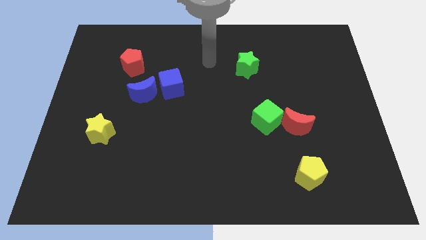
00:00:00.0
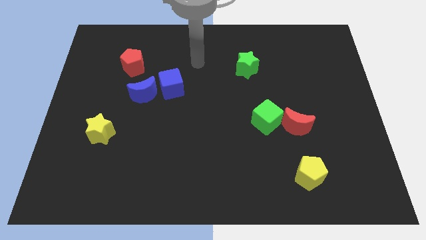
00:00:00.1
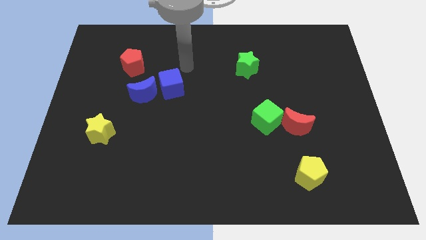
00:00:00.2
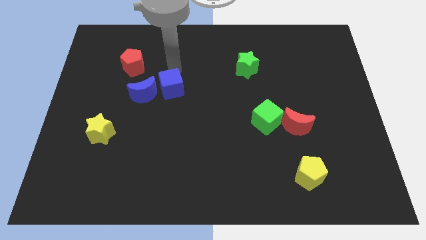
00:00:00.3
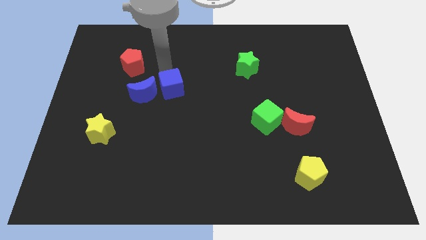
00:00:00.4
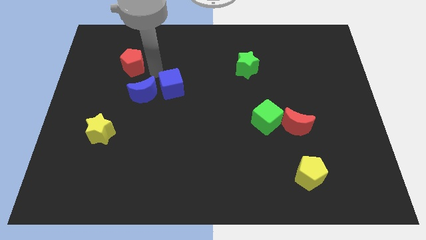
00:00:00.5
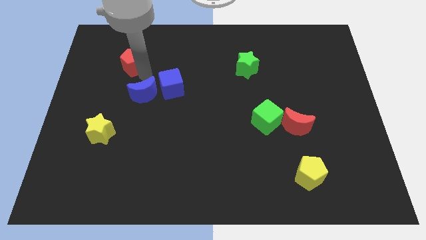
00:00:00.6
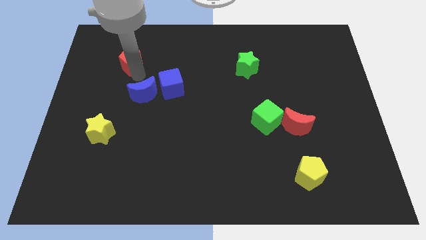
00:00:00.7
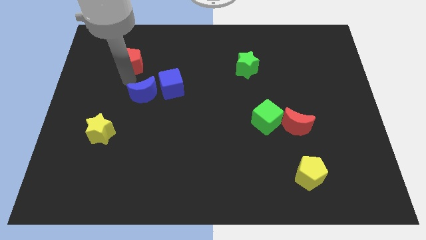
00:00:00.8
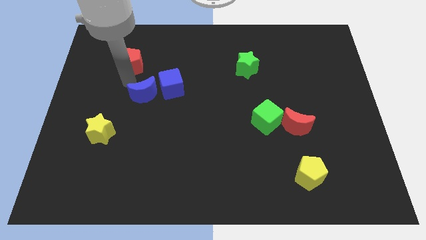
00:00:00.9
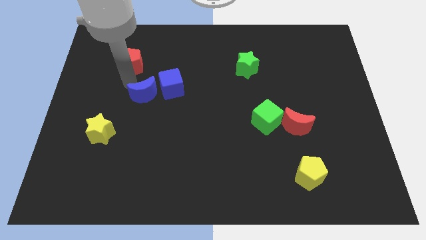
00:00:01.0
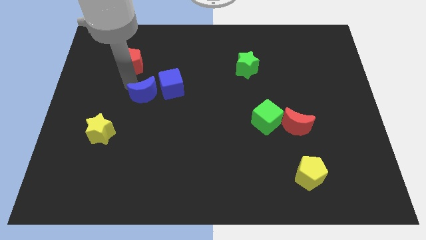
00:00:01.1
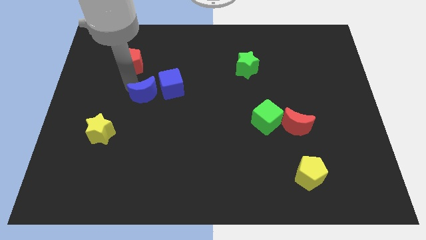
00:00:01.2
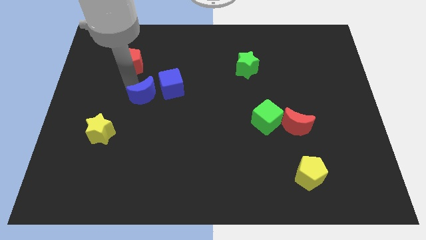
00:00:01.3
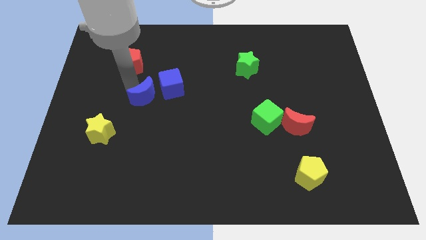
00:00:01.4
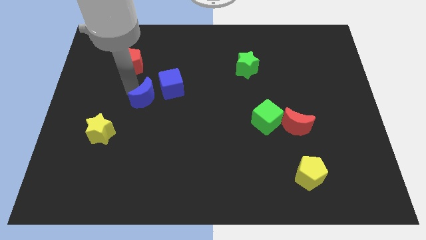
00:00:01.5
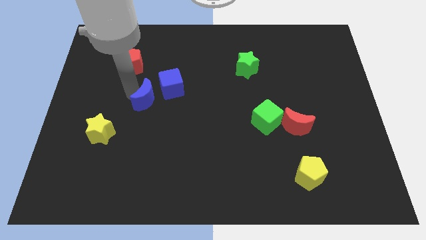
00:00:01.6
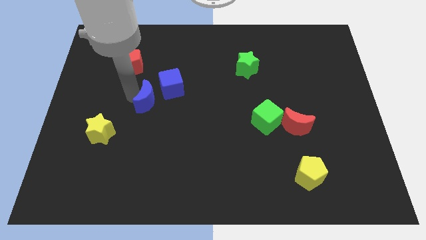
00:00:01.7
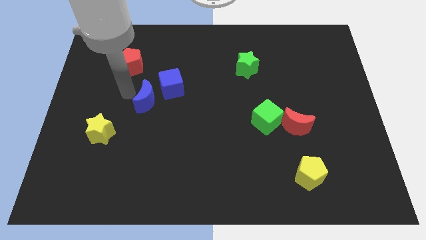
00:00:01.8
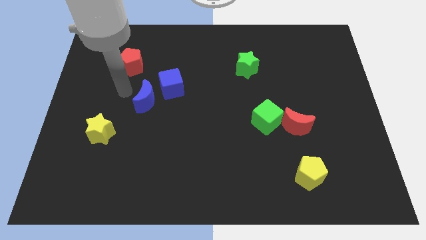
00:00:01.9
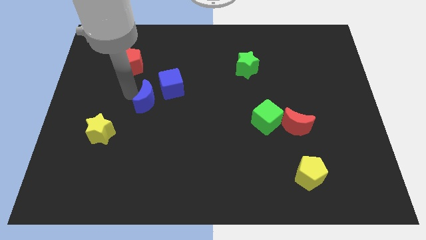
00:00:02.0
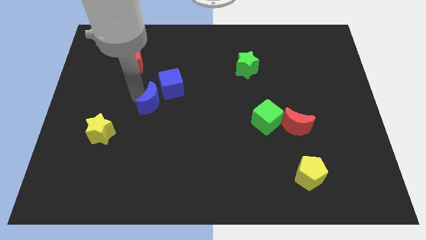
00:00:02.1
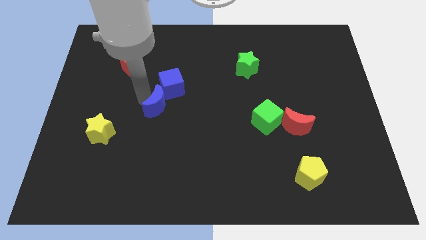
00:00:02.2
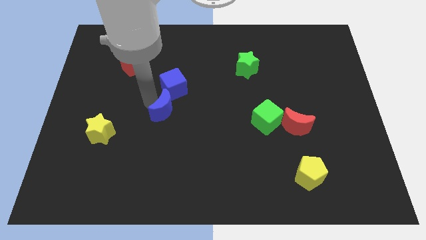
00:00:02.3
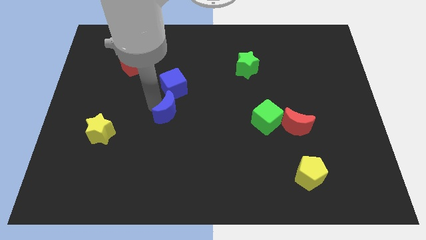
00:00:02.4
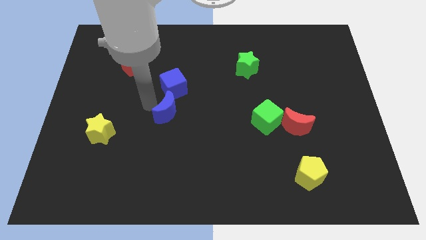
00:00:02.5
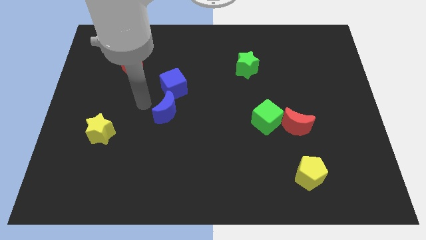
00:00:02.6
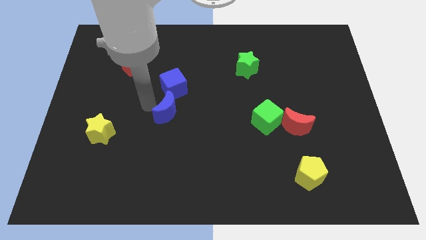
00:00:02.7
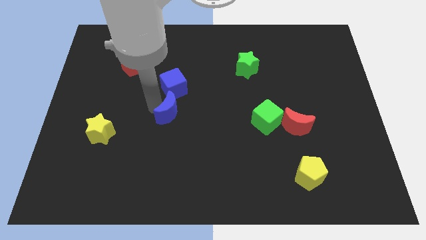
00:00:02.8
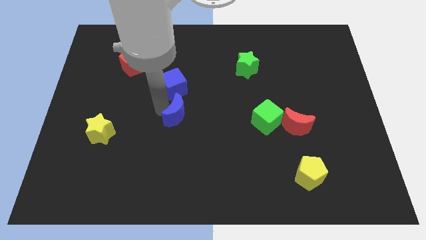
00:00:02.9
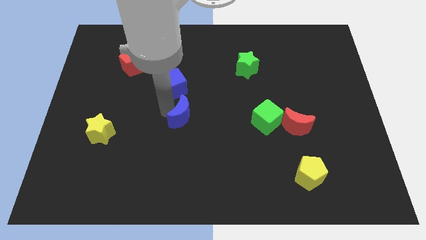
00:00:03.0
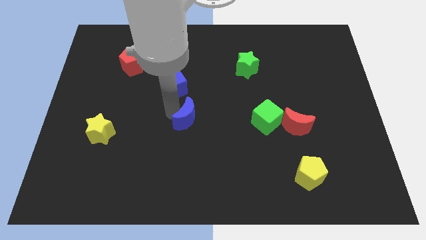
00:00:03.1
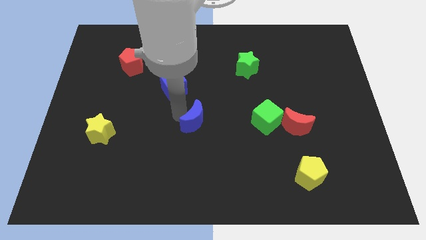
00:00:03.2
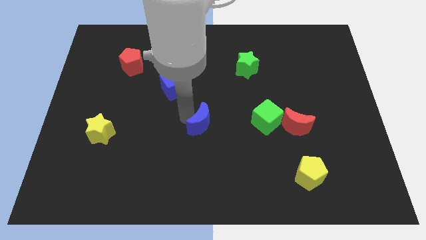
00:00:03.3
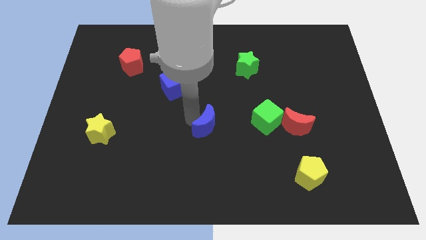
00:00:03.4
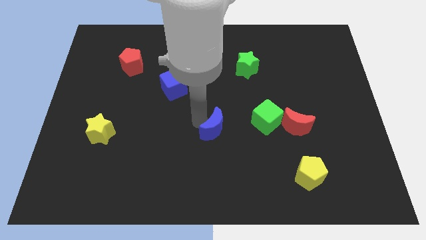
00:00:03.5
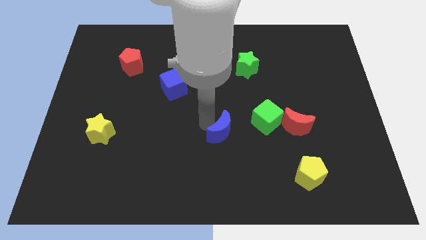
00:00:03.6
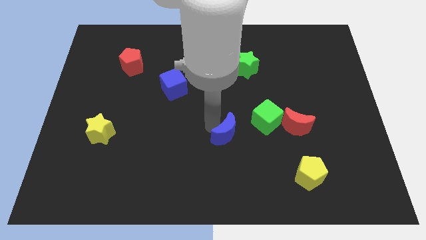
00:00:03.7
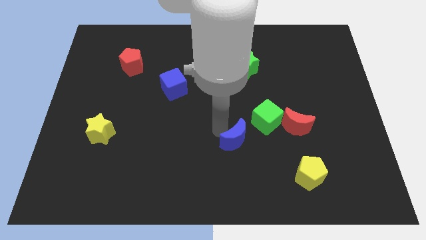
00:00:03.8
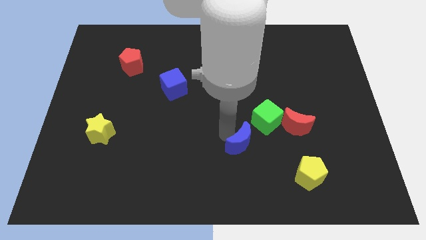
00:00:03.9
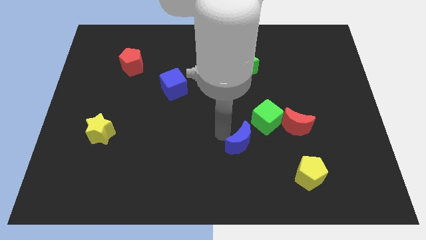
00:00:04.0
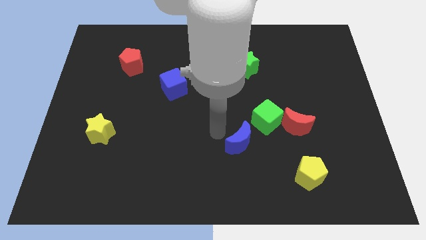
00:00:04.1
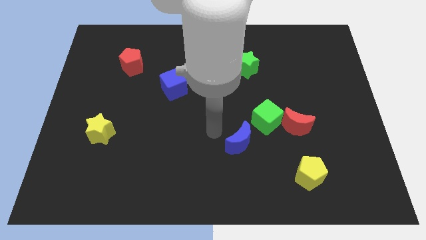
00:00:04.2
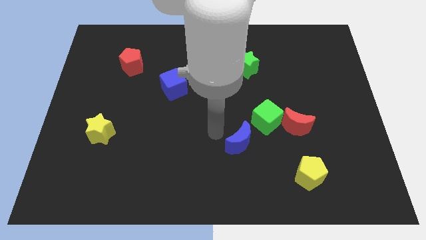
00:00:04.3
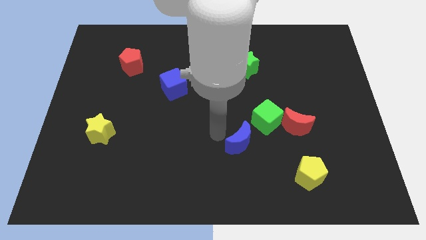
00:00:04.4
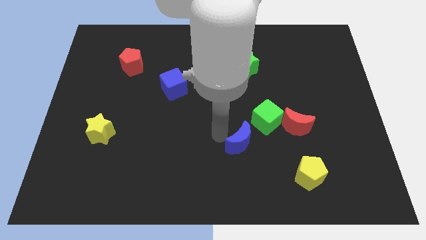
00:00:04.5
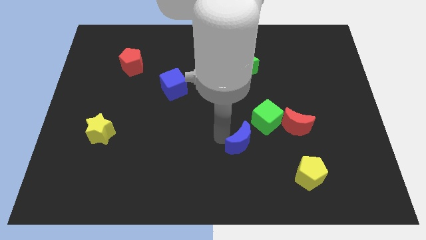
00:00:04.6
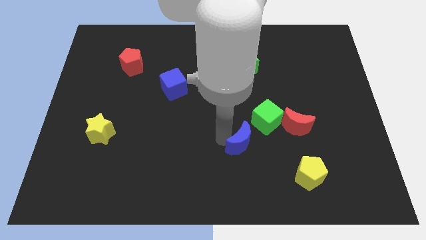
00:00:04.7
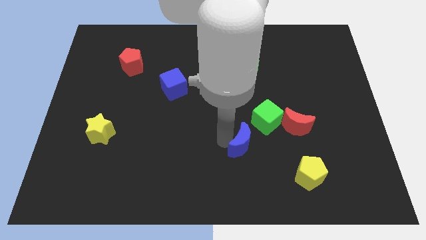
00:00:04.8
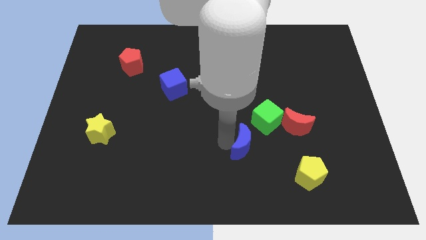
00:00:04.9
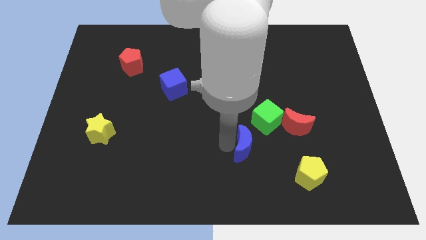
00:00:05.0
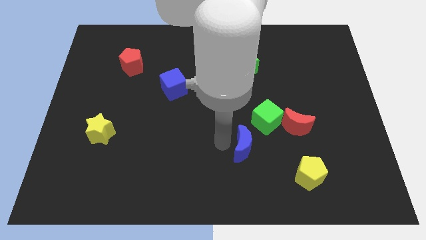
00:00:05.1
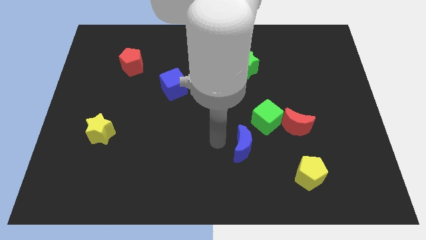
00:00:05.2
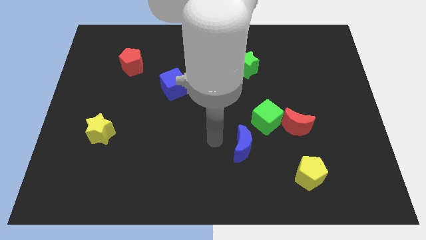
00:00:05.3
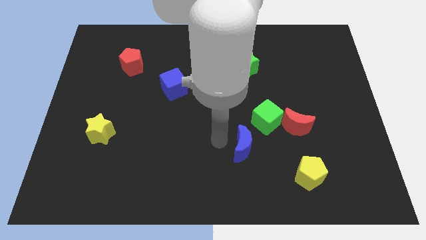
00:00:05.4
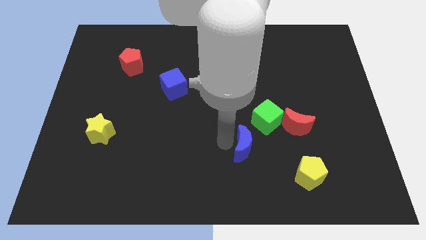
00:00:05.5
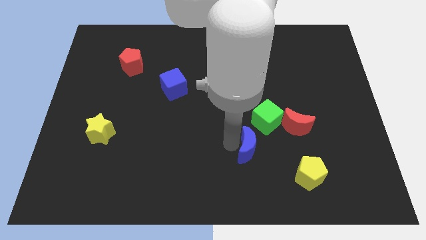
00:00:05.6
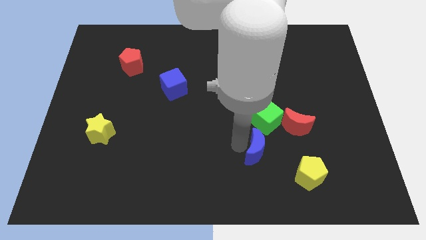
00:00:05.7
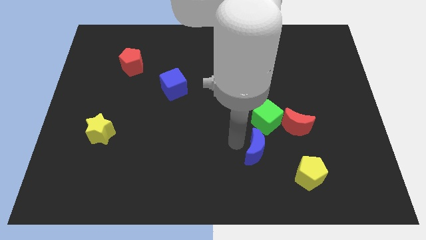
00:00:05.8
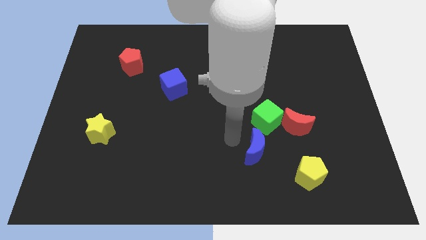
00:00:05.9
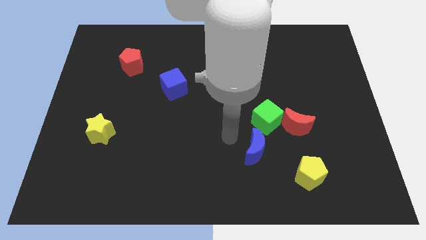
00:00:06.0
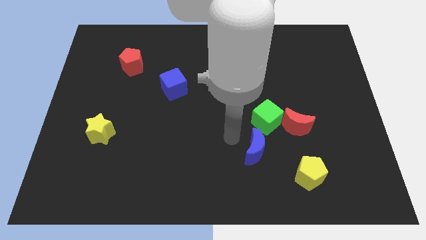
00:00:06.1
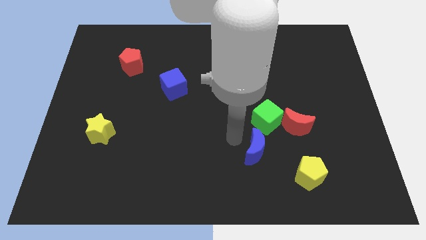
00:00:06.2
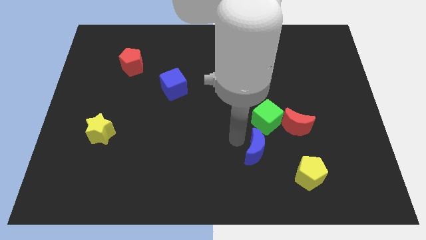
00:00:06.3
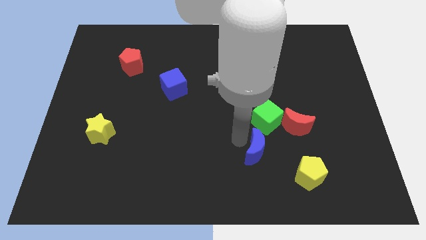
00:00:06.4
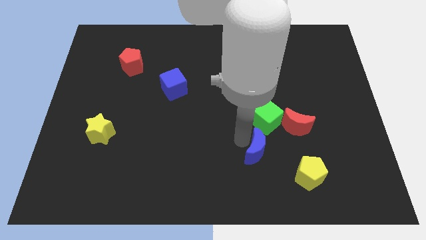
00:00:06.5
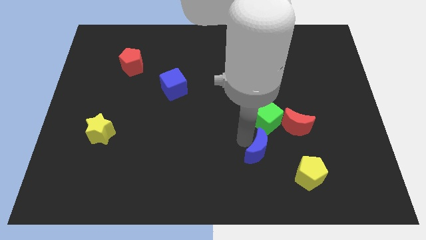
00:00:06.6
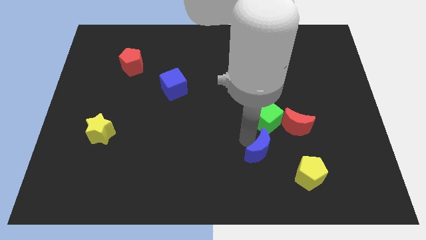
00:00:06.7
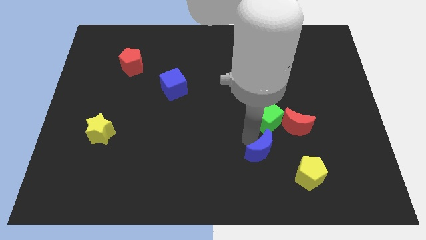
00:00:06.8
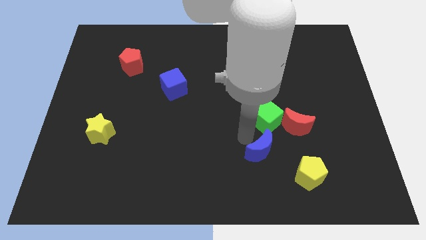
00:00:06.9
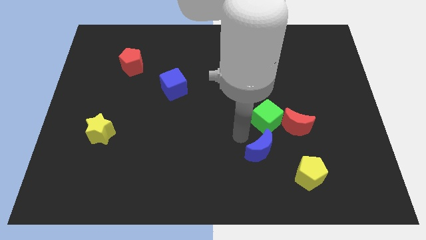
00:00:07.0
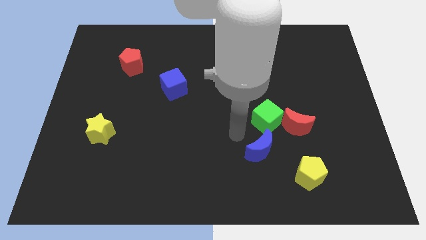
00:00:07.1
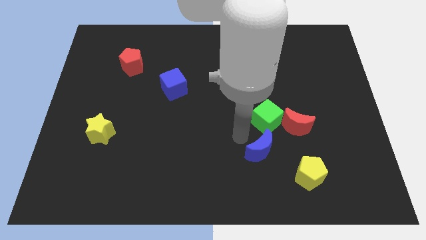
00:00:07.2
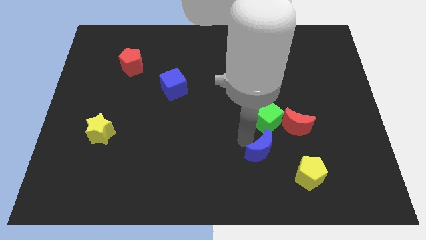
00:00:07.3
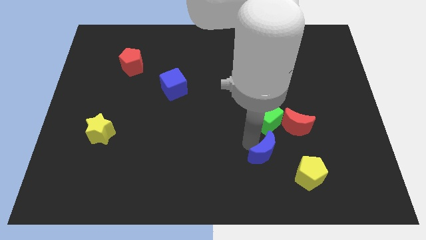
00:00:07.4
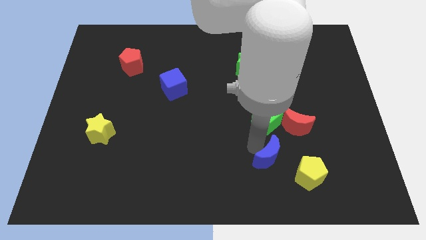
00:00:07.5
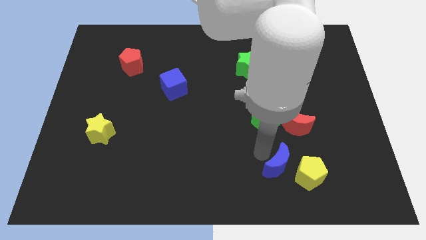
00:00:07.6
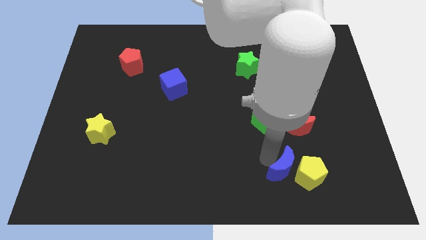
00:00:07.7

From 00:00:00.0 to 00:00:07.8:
push the blue moon towards the yellow pentagon

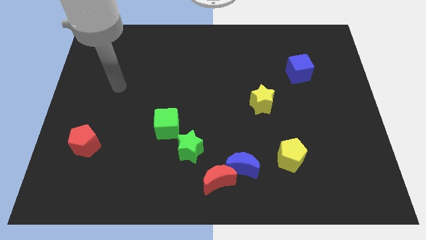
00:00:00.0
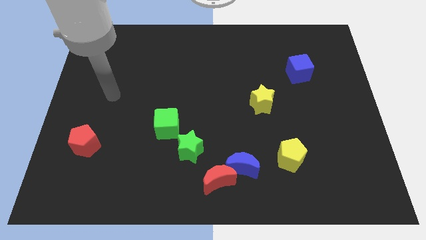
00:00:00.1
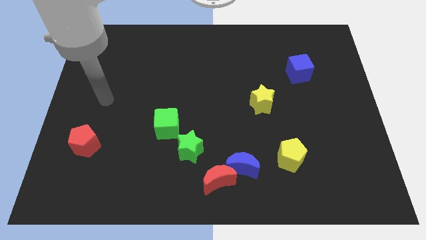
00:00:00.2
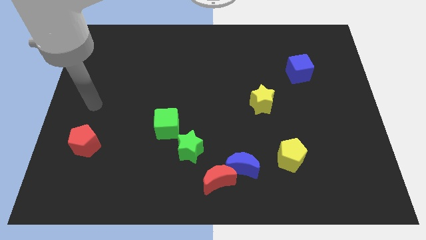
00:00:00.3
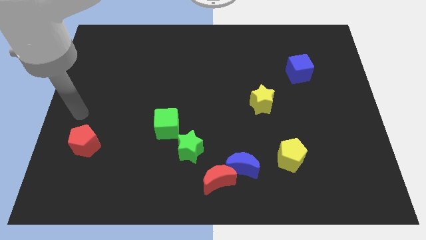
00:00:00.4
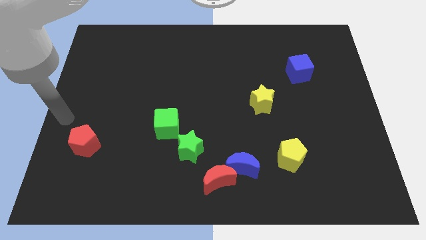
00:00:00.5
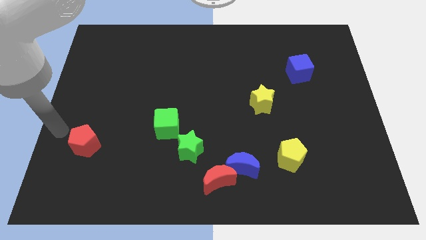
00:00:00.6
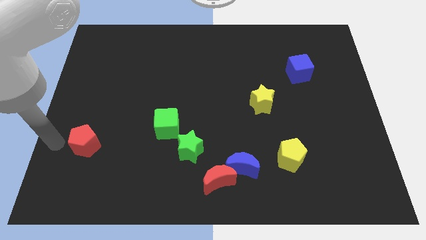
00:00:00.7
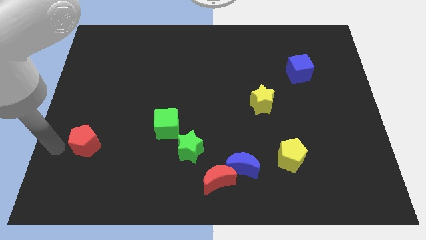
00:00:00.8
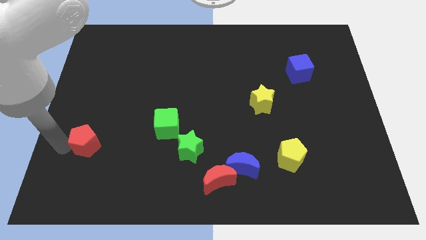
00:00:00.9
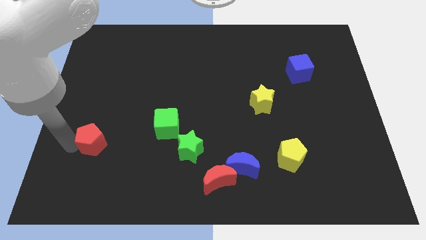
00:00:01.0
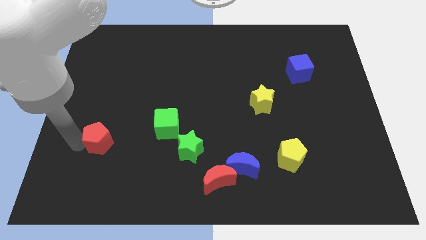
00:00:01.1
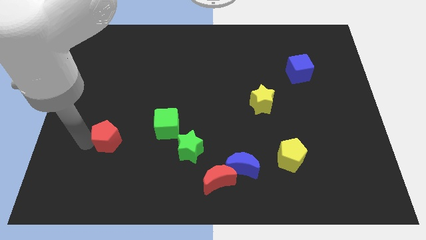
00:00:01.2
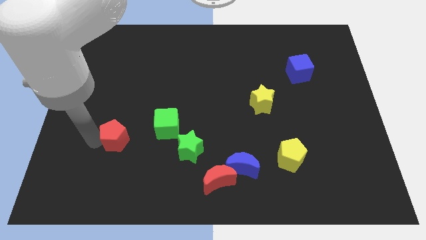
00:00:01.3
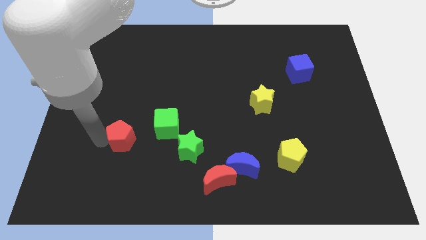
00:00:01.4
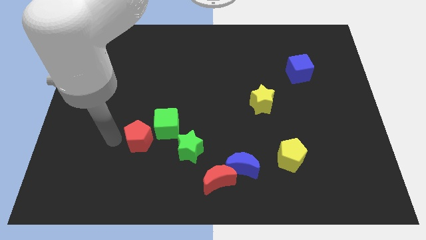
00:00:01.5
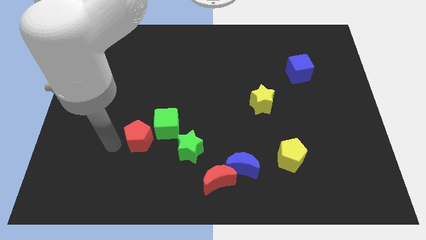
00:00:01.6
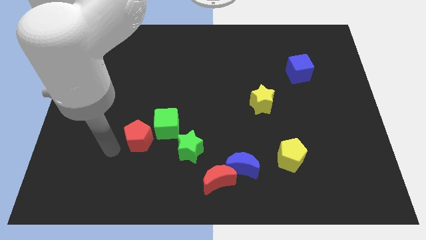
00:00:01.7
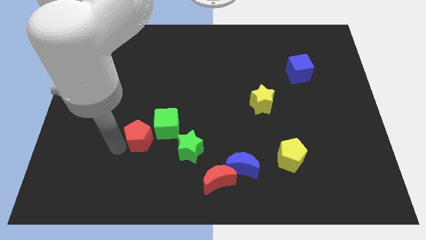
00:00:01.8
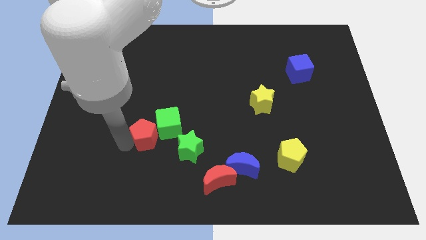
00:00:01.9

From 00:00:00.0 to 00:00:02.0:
push the red pentagon next to the green cube
